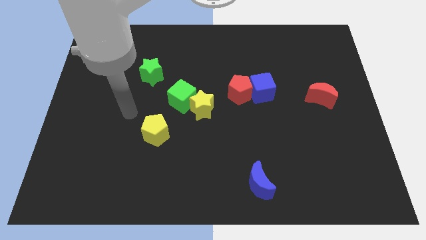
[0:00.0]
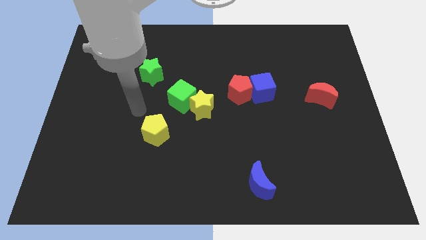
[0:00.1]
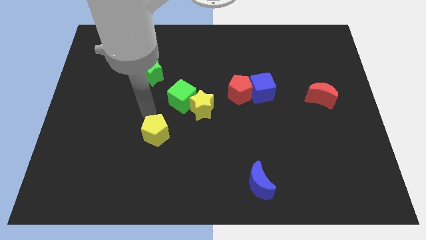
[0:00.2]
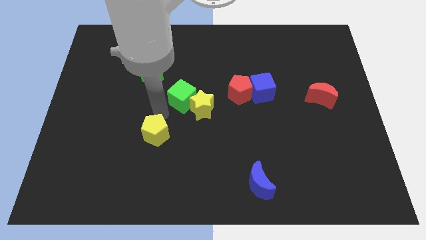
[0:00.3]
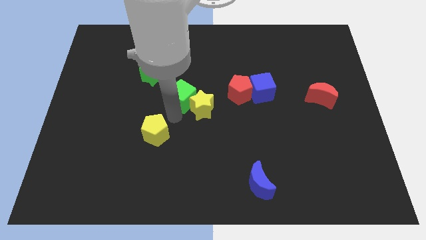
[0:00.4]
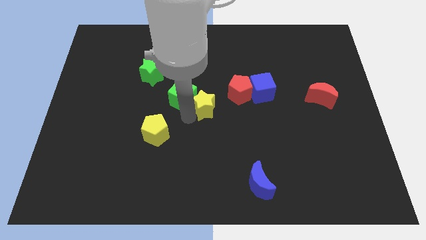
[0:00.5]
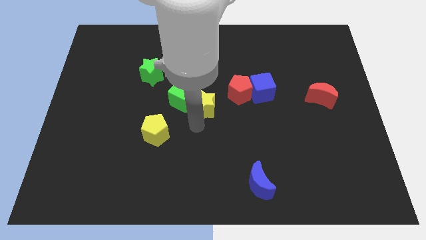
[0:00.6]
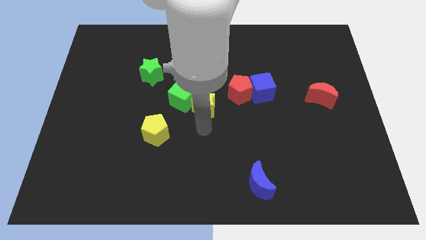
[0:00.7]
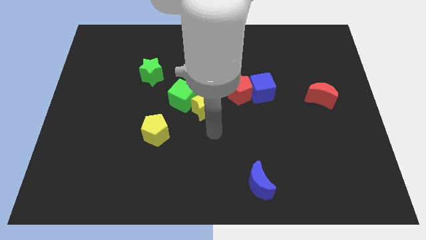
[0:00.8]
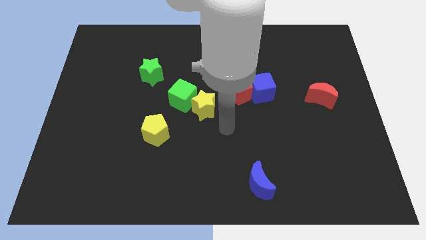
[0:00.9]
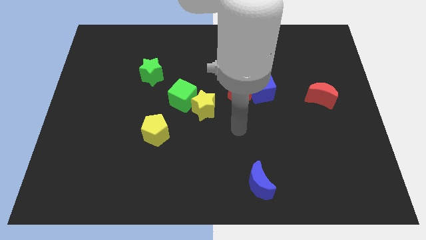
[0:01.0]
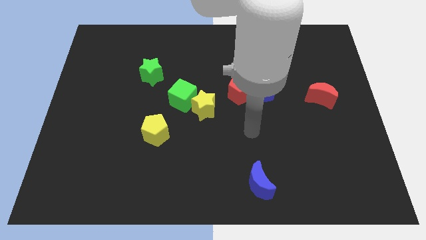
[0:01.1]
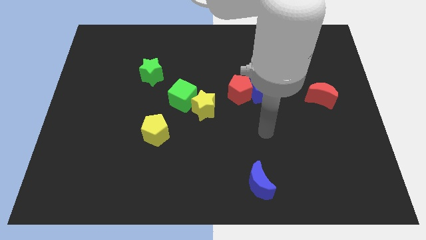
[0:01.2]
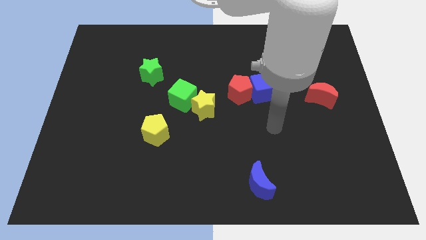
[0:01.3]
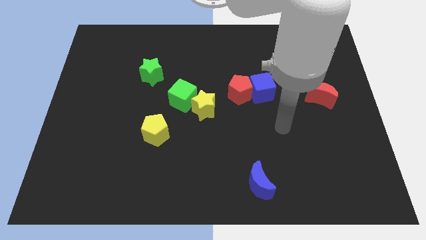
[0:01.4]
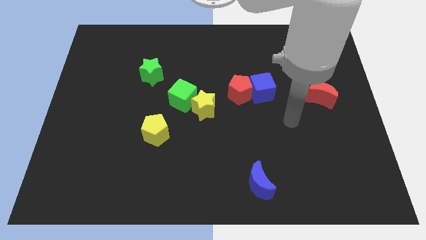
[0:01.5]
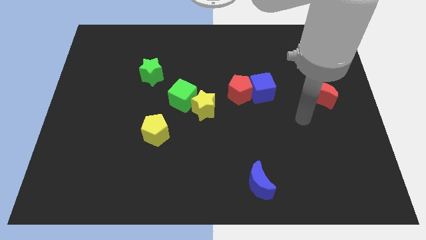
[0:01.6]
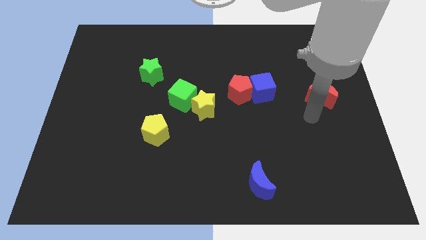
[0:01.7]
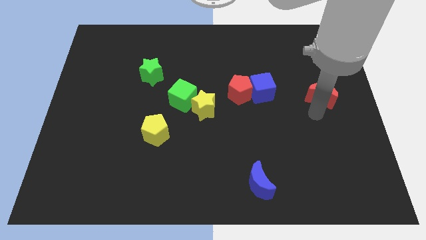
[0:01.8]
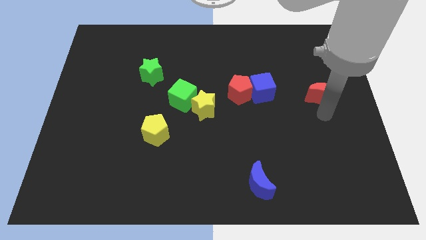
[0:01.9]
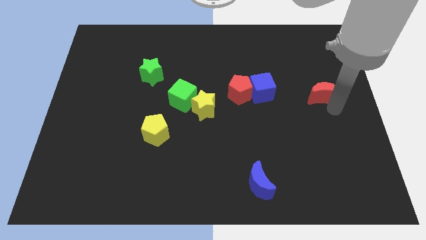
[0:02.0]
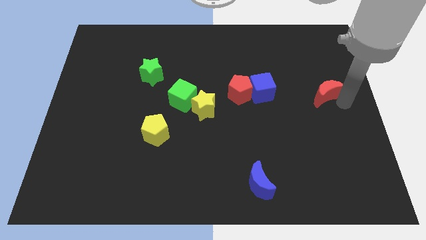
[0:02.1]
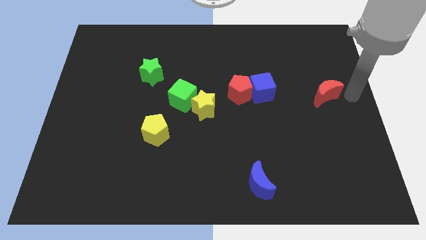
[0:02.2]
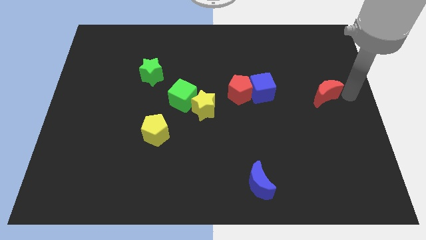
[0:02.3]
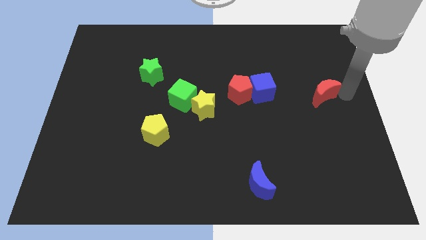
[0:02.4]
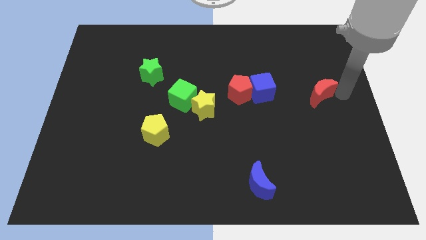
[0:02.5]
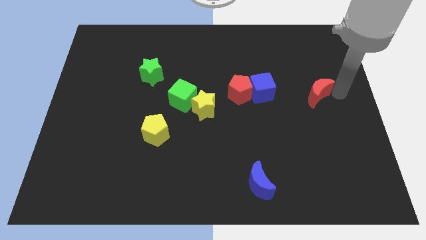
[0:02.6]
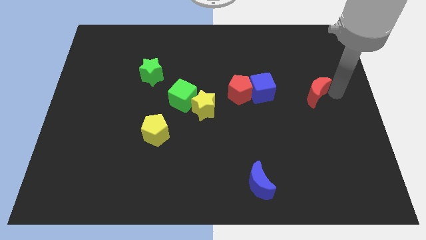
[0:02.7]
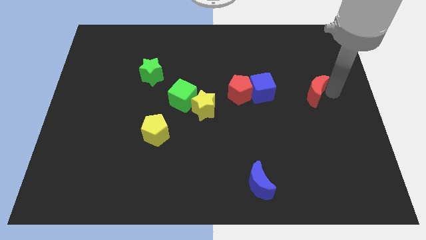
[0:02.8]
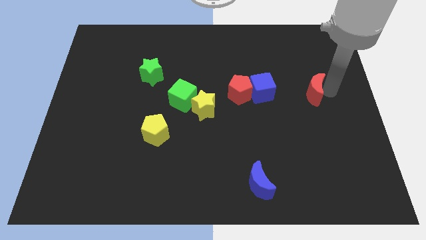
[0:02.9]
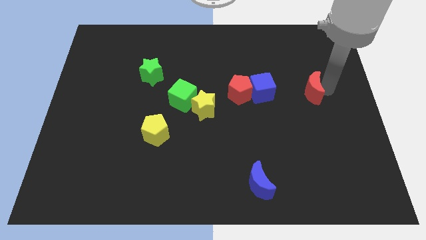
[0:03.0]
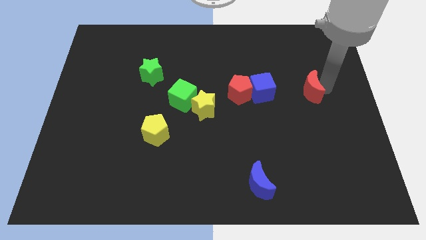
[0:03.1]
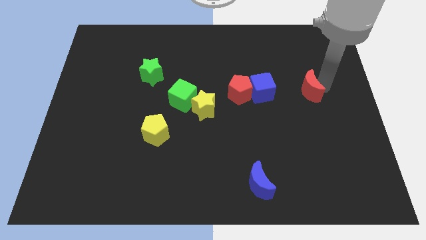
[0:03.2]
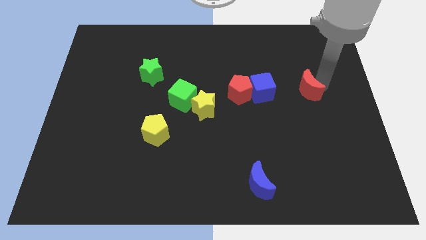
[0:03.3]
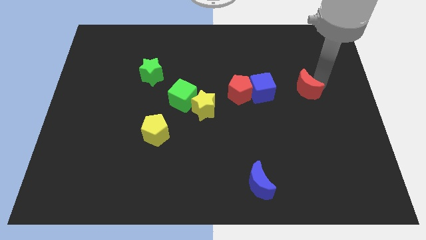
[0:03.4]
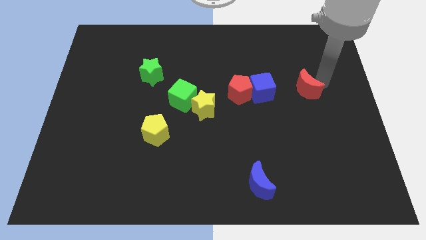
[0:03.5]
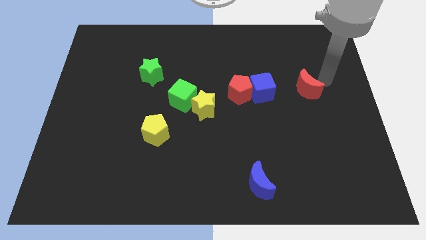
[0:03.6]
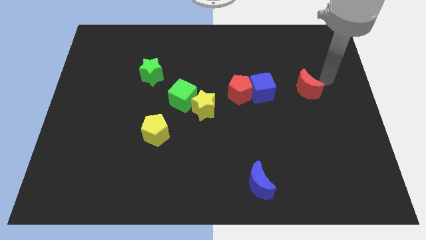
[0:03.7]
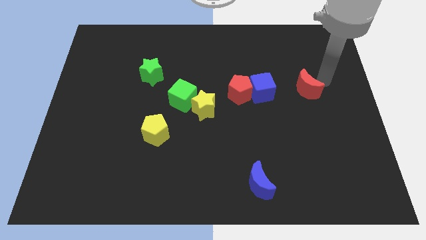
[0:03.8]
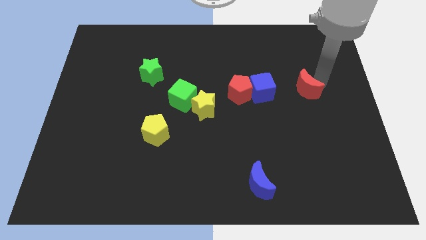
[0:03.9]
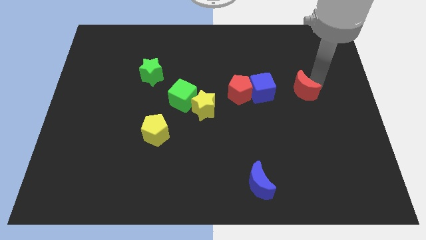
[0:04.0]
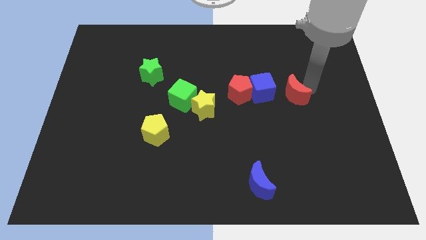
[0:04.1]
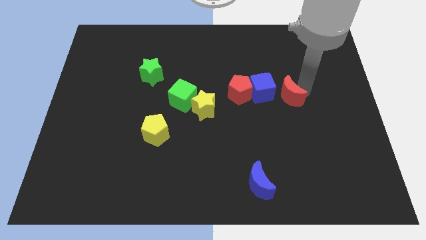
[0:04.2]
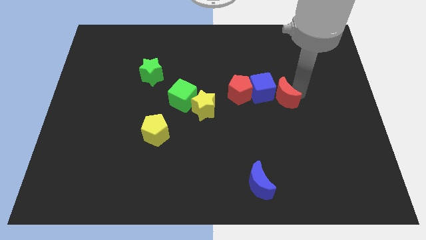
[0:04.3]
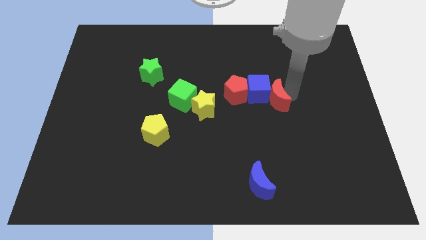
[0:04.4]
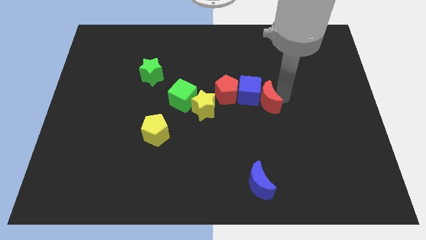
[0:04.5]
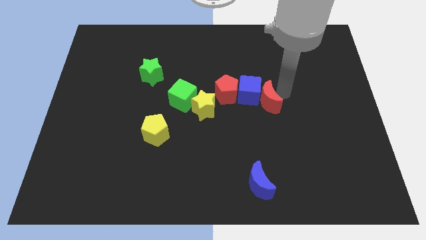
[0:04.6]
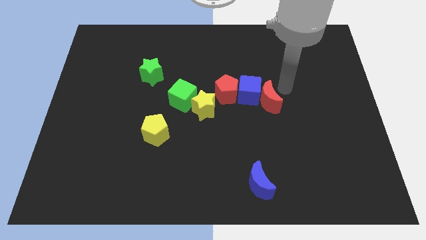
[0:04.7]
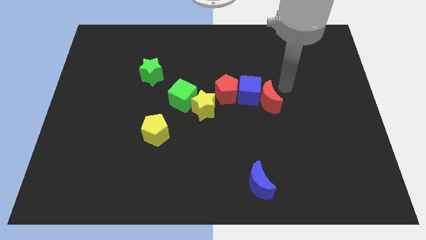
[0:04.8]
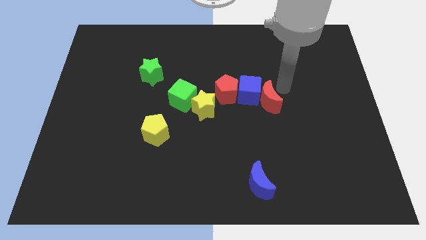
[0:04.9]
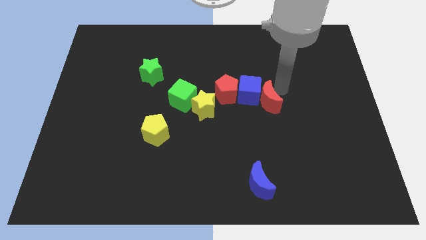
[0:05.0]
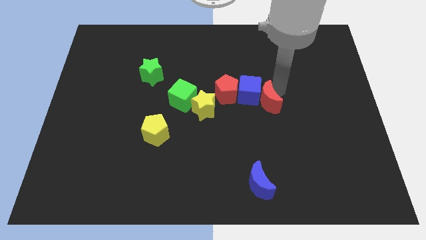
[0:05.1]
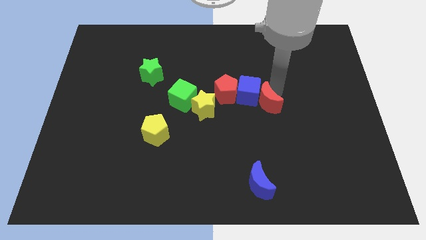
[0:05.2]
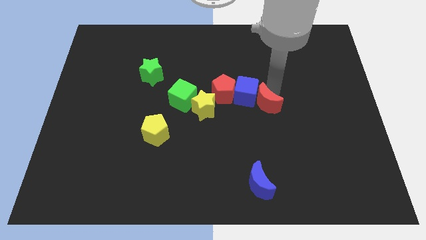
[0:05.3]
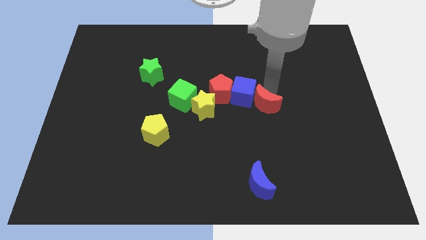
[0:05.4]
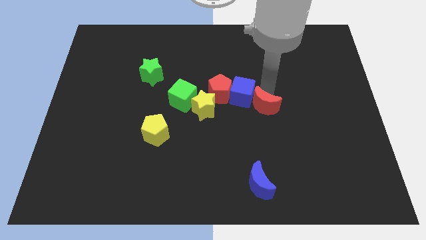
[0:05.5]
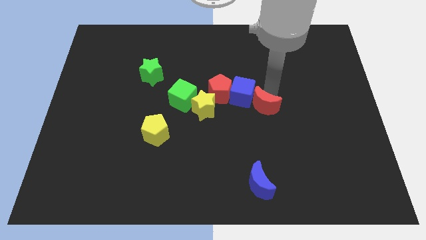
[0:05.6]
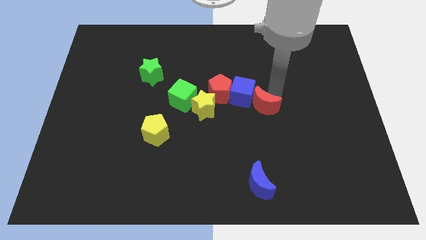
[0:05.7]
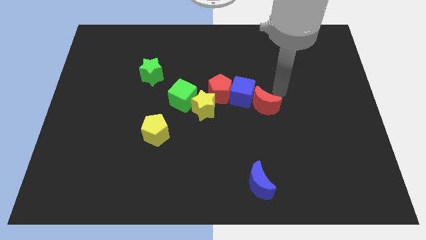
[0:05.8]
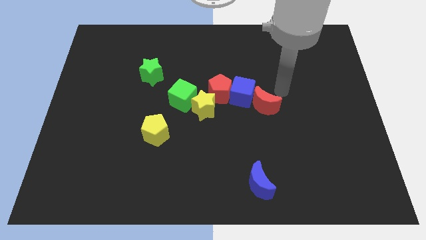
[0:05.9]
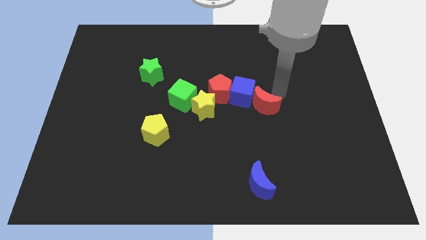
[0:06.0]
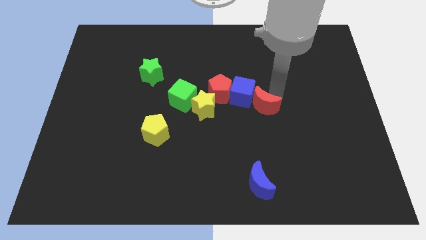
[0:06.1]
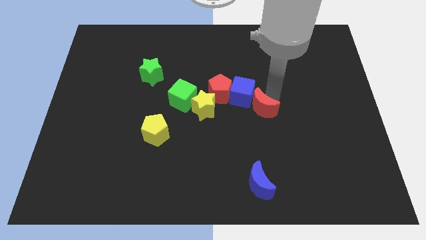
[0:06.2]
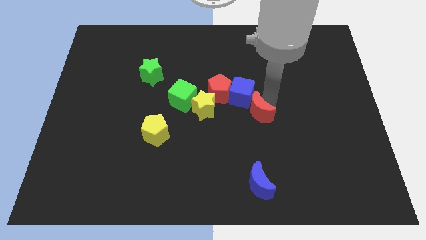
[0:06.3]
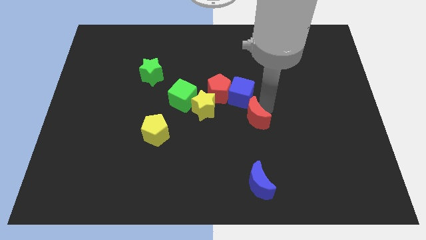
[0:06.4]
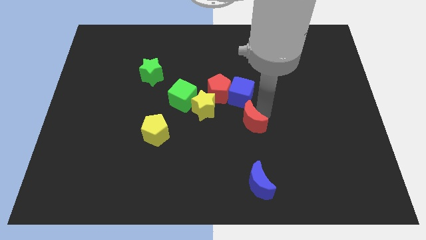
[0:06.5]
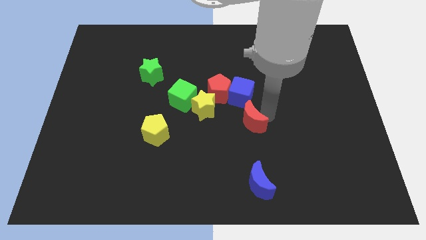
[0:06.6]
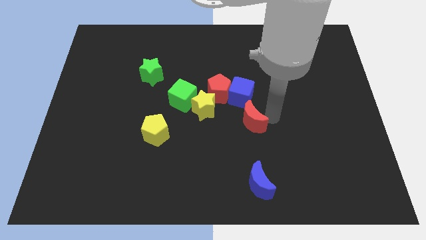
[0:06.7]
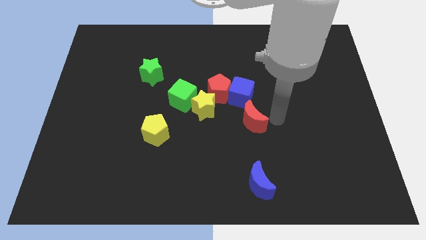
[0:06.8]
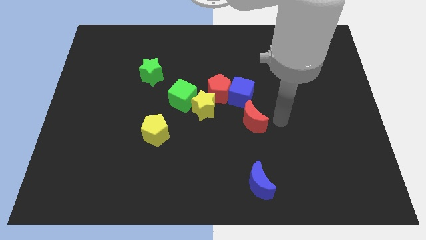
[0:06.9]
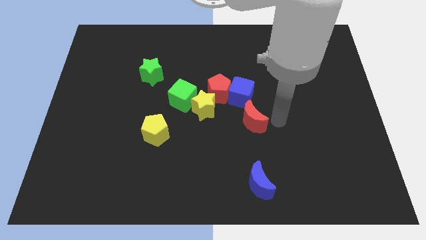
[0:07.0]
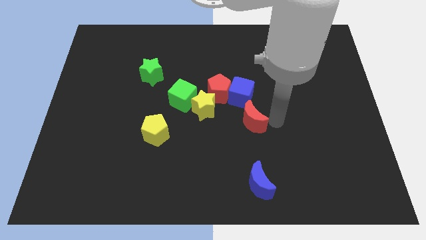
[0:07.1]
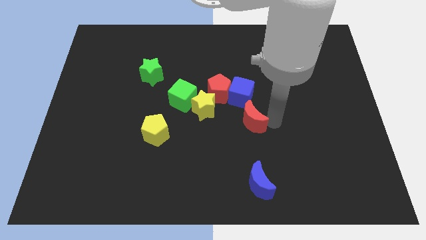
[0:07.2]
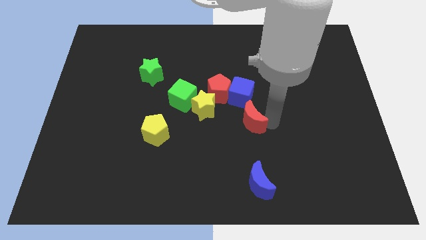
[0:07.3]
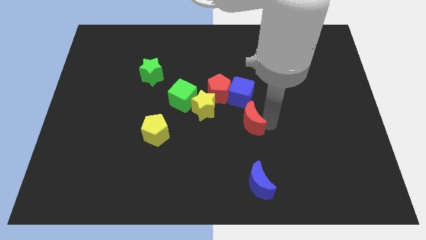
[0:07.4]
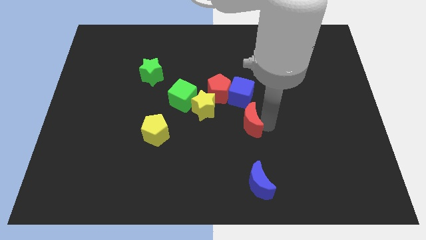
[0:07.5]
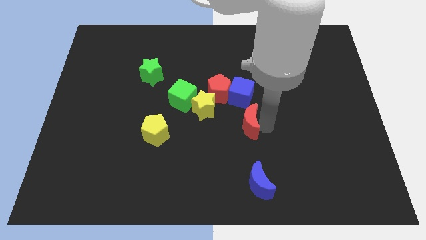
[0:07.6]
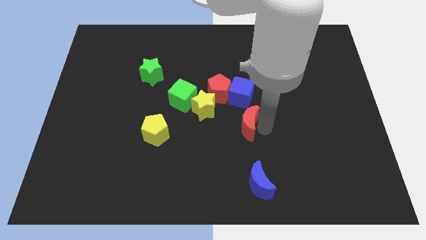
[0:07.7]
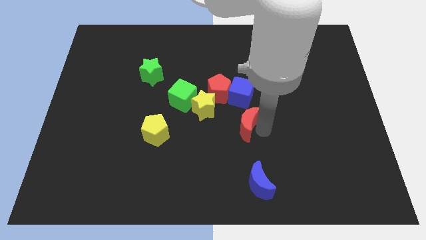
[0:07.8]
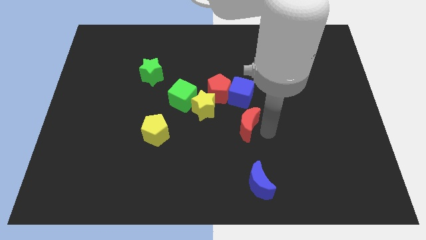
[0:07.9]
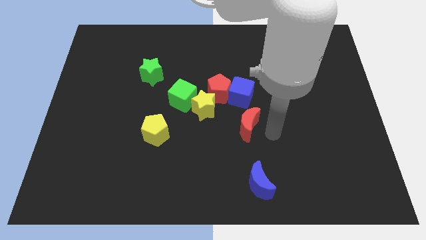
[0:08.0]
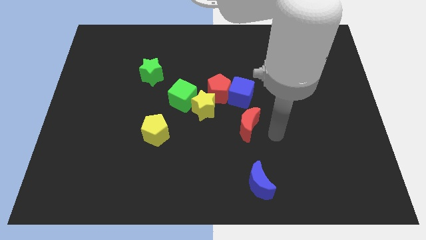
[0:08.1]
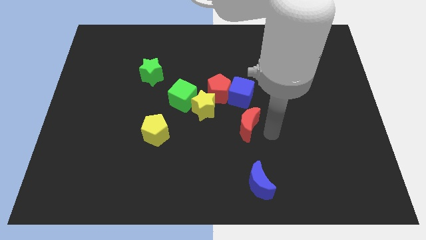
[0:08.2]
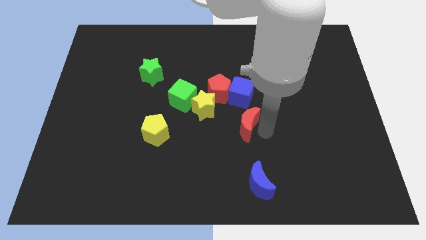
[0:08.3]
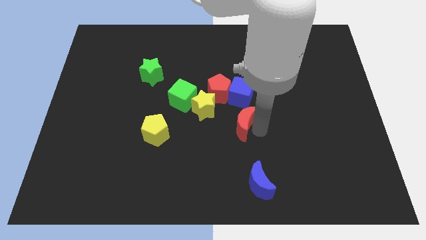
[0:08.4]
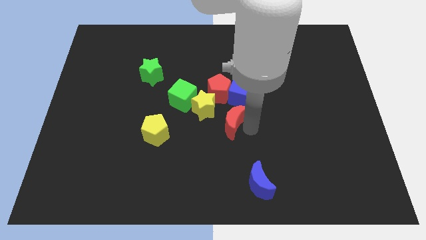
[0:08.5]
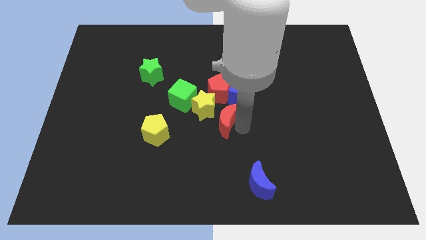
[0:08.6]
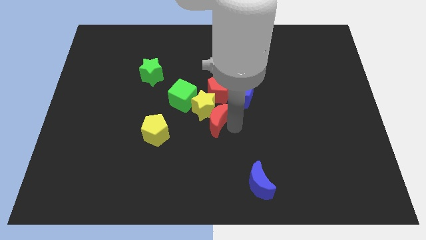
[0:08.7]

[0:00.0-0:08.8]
move the red moon towards the yellow star
